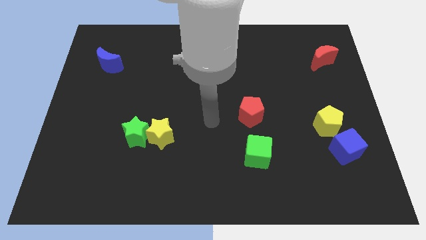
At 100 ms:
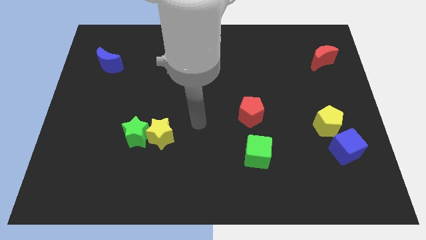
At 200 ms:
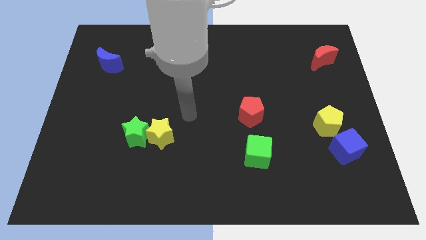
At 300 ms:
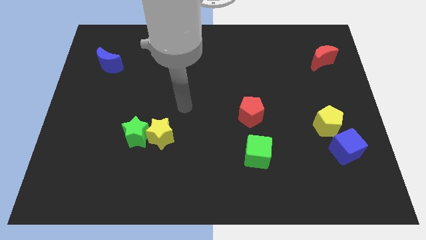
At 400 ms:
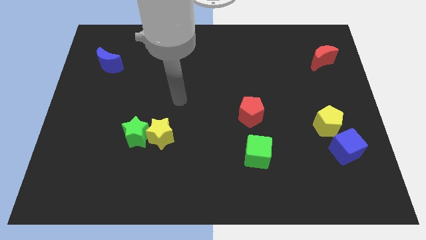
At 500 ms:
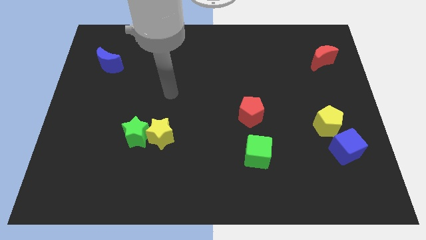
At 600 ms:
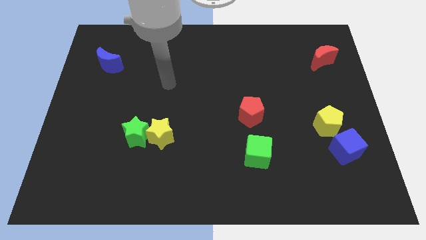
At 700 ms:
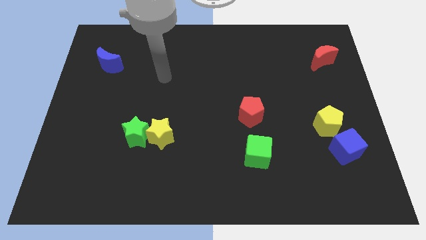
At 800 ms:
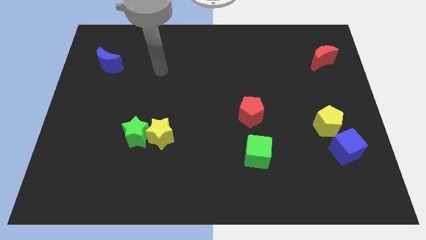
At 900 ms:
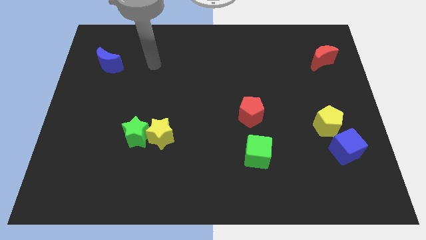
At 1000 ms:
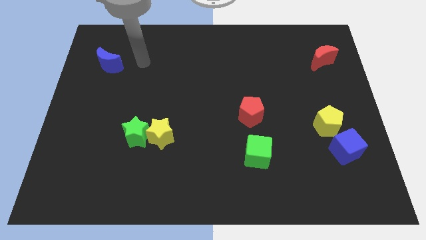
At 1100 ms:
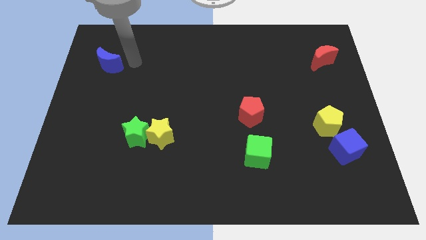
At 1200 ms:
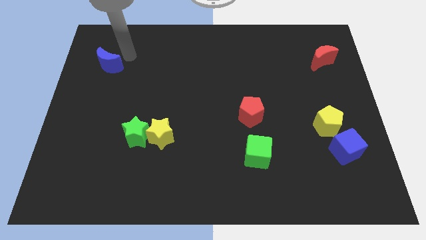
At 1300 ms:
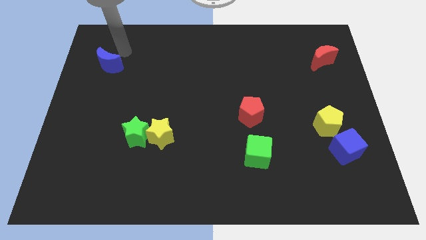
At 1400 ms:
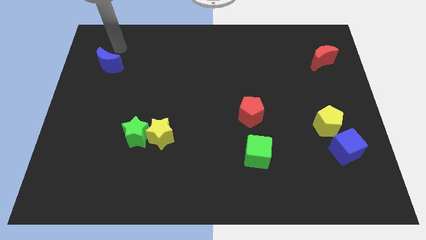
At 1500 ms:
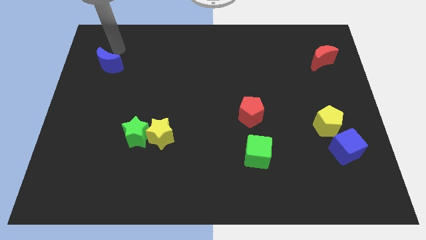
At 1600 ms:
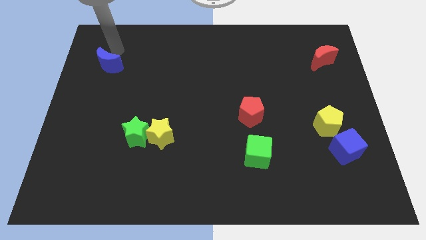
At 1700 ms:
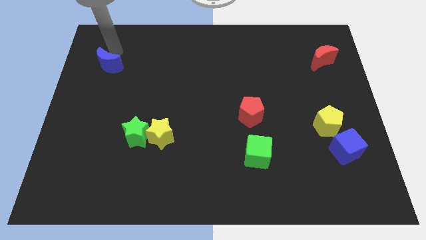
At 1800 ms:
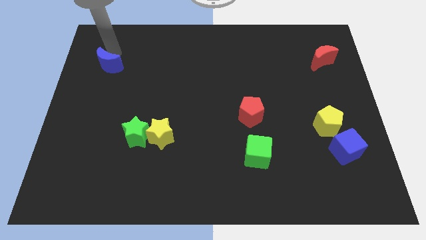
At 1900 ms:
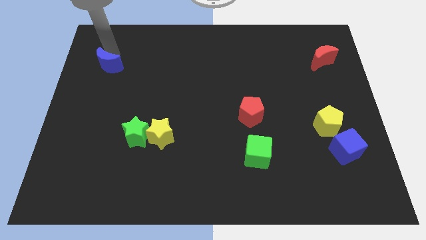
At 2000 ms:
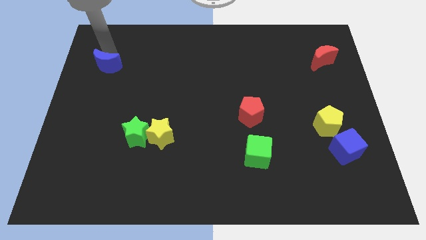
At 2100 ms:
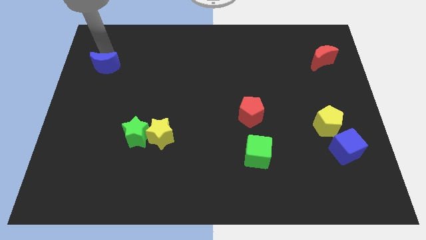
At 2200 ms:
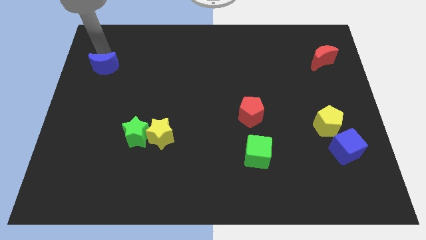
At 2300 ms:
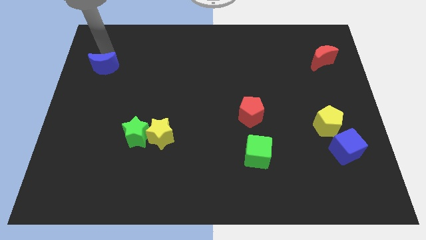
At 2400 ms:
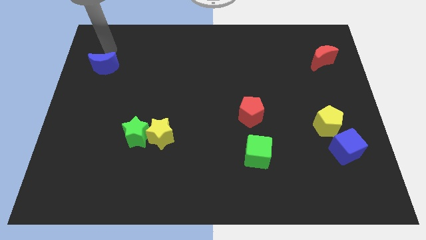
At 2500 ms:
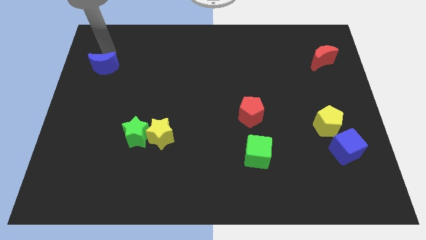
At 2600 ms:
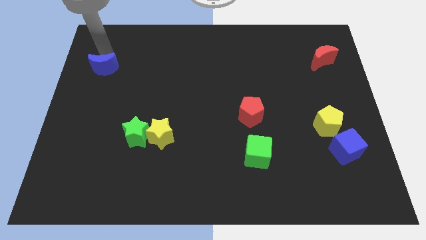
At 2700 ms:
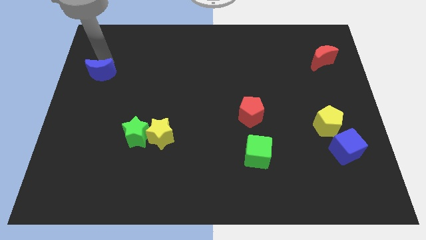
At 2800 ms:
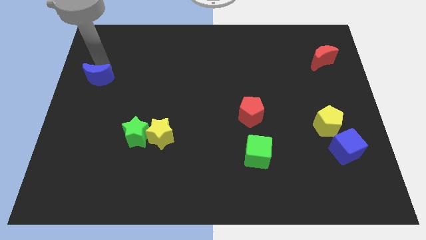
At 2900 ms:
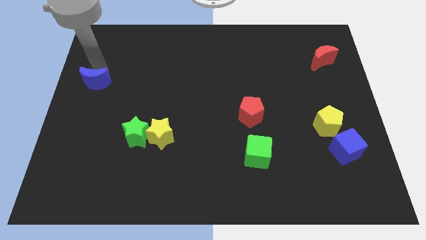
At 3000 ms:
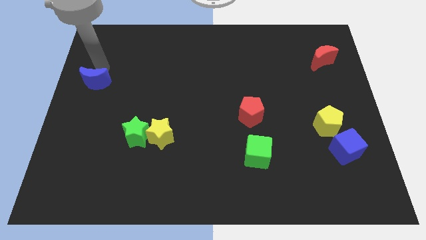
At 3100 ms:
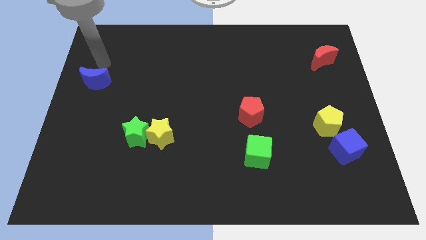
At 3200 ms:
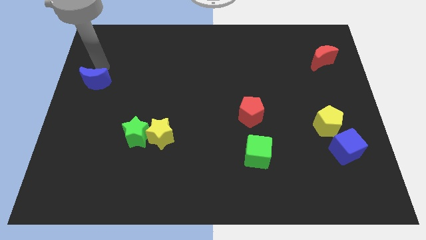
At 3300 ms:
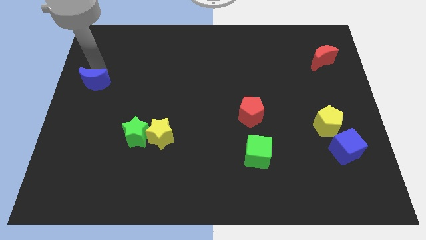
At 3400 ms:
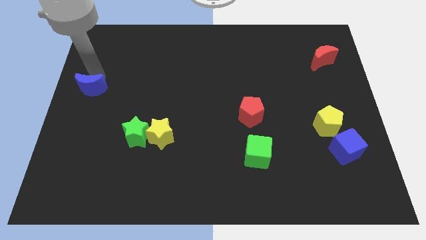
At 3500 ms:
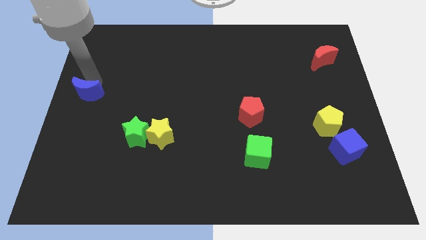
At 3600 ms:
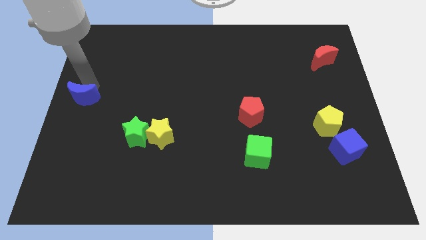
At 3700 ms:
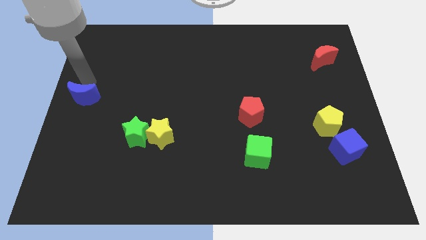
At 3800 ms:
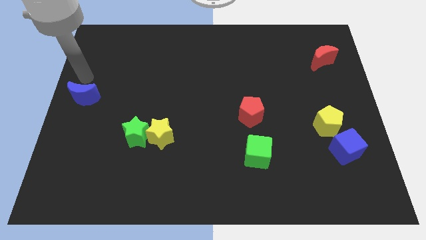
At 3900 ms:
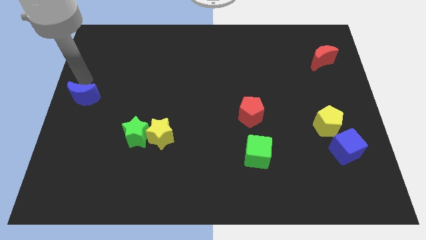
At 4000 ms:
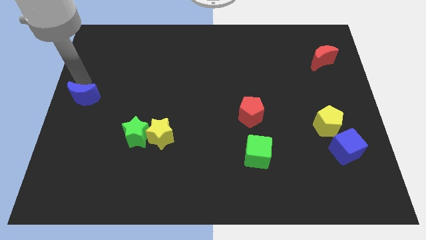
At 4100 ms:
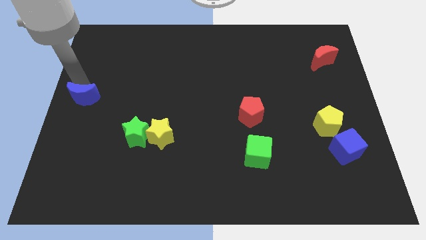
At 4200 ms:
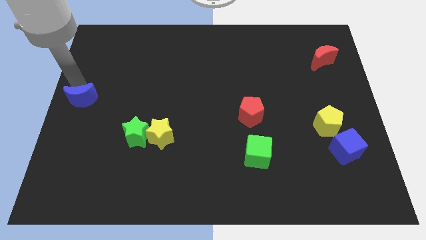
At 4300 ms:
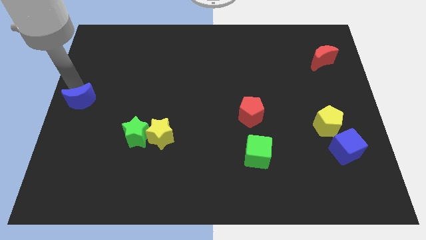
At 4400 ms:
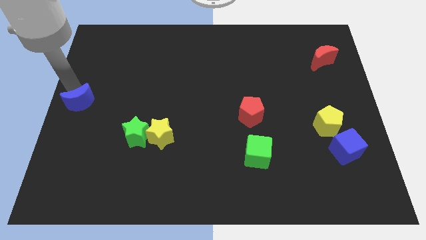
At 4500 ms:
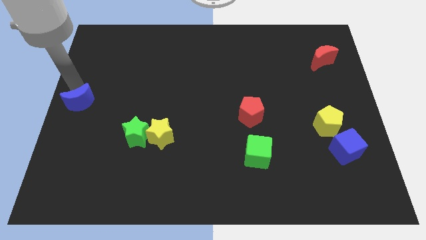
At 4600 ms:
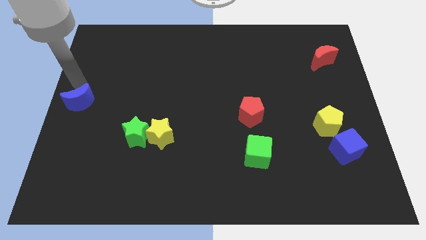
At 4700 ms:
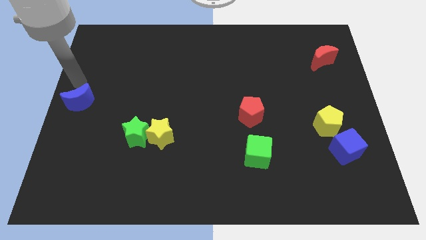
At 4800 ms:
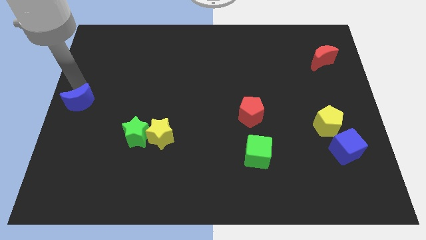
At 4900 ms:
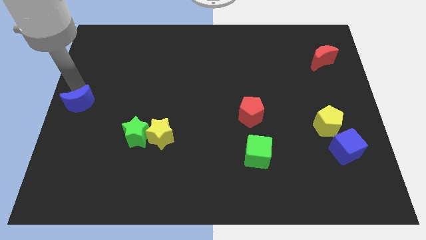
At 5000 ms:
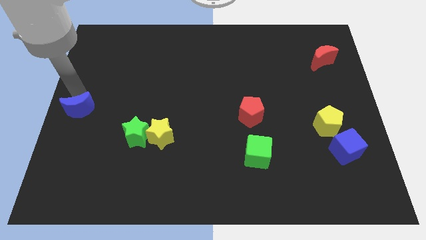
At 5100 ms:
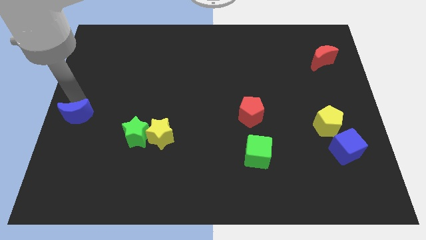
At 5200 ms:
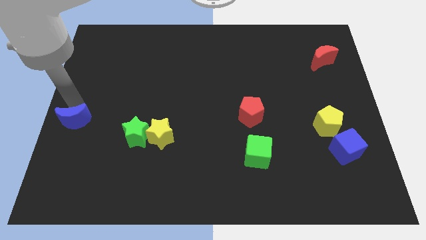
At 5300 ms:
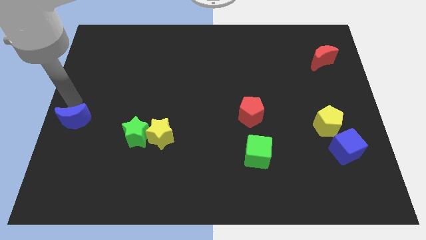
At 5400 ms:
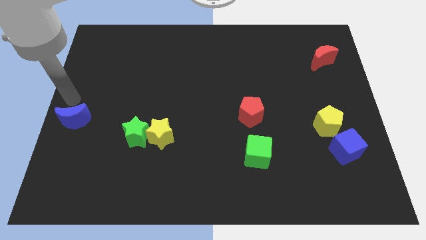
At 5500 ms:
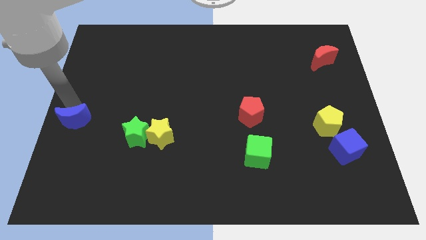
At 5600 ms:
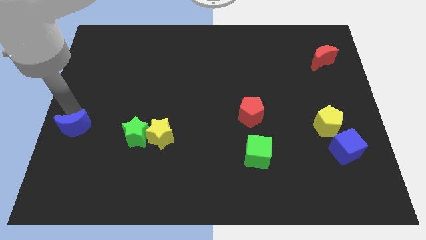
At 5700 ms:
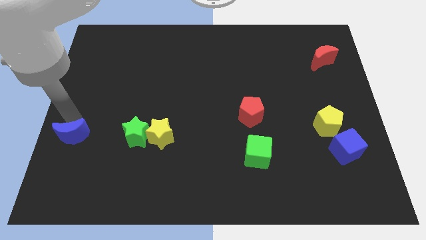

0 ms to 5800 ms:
slide the blue moon downwards

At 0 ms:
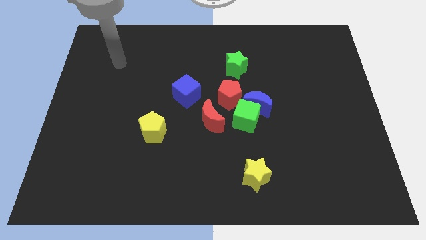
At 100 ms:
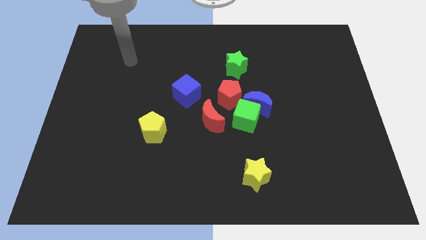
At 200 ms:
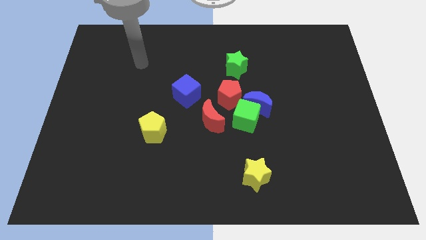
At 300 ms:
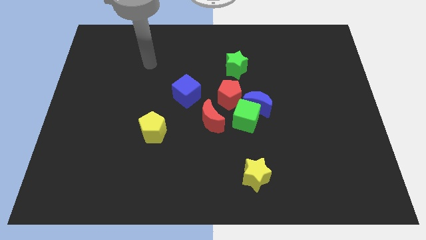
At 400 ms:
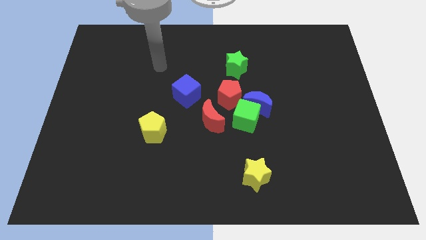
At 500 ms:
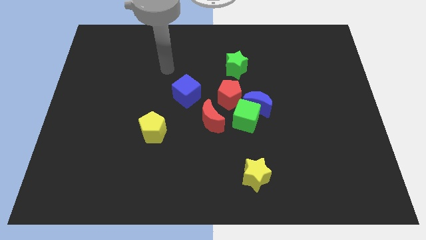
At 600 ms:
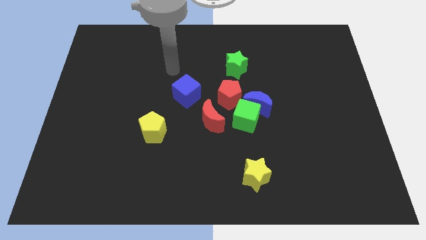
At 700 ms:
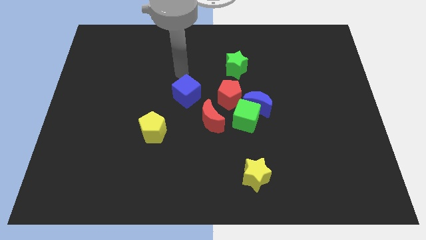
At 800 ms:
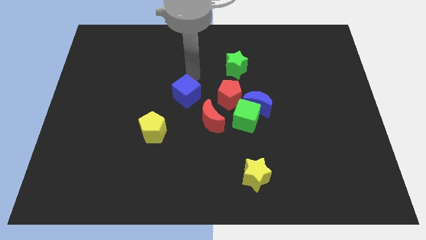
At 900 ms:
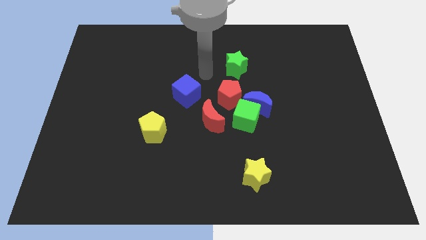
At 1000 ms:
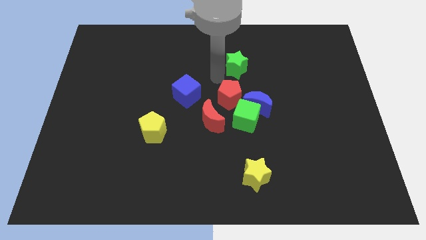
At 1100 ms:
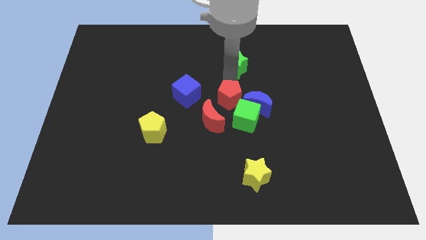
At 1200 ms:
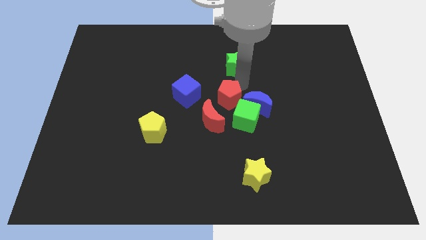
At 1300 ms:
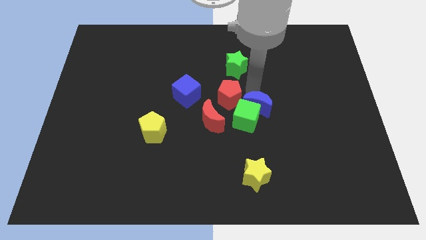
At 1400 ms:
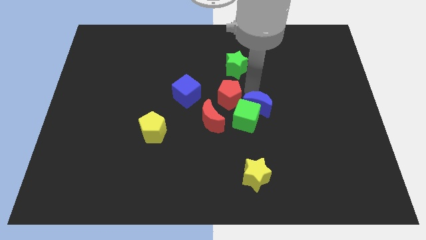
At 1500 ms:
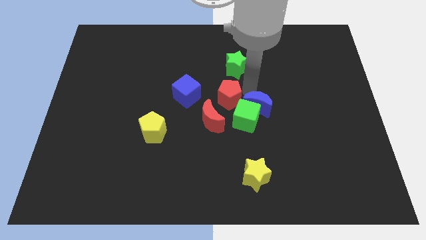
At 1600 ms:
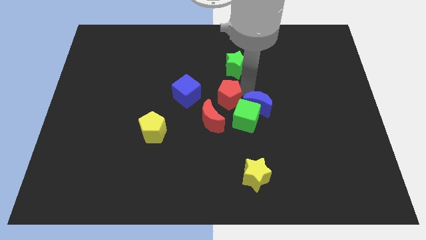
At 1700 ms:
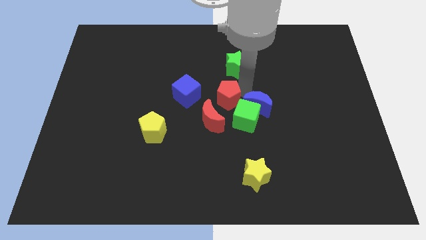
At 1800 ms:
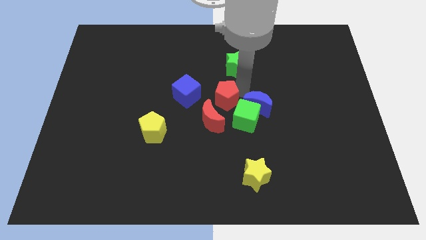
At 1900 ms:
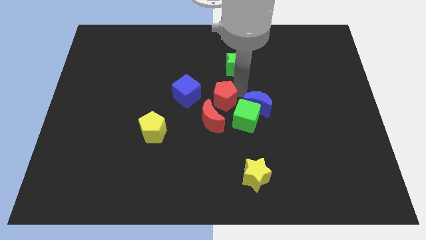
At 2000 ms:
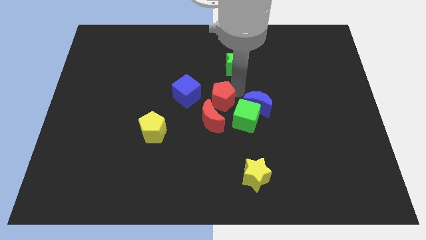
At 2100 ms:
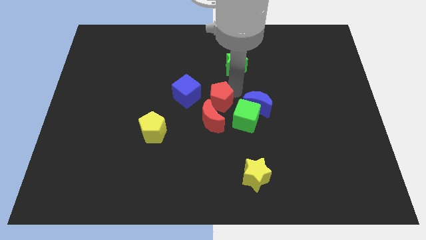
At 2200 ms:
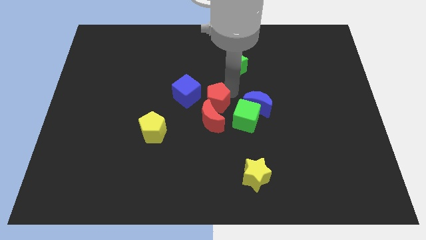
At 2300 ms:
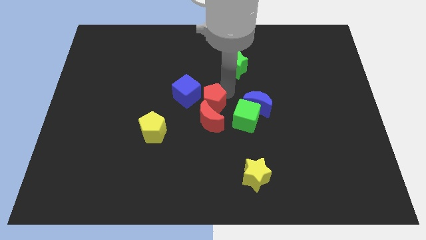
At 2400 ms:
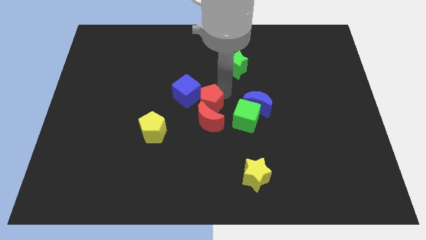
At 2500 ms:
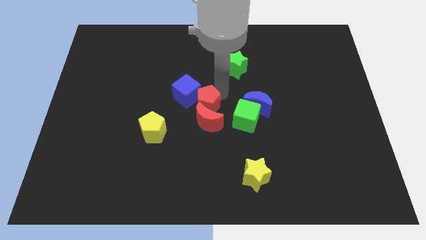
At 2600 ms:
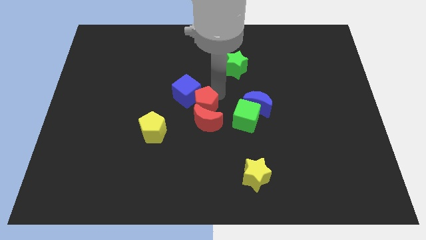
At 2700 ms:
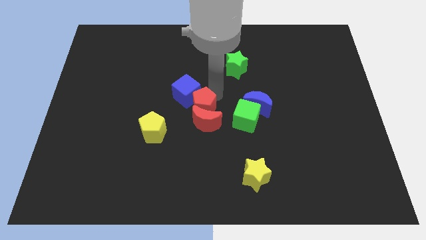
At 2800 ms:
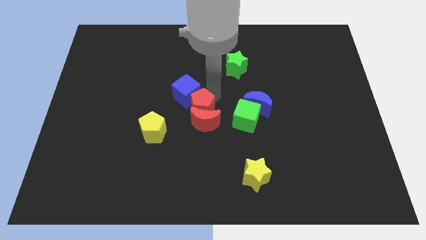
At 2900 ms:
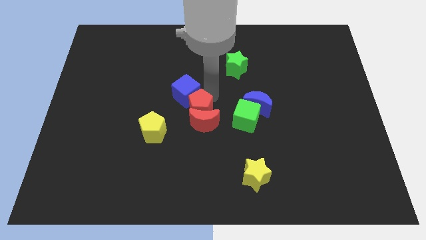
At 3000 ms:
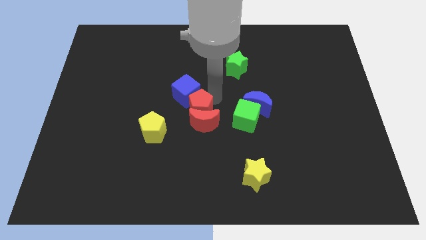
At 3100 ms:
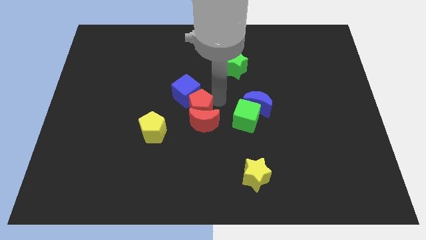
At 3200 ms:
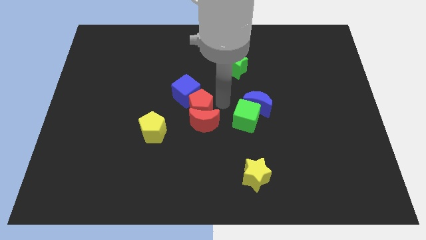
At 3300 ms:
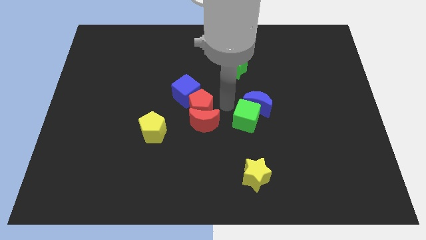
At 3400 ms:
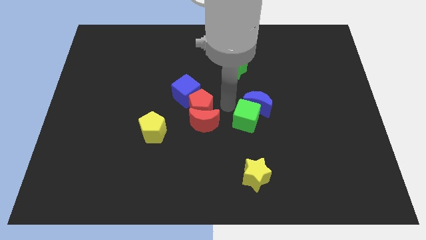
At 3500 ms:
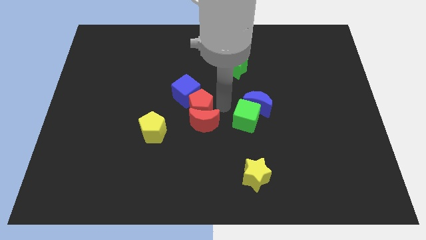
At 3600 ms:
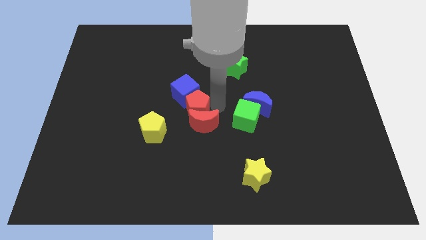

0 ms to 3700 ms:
move the red pentagon somewhat to the left
